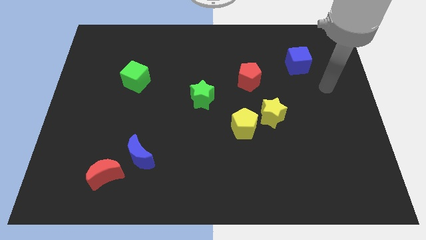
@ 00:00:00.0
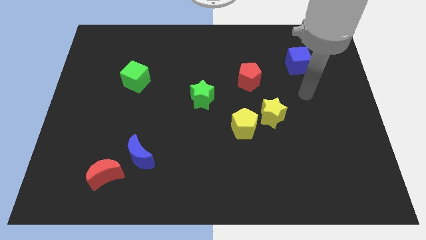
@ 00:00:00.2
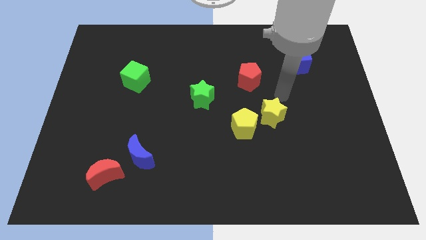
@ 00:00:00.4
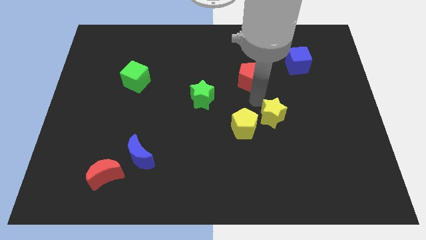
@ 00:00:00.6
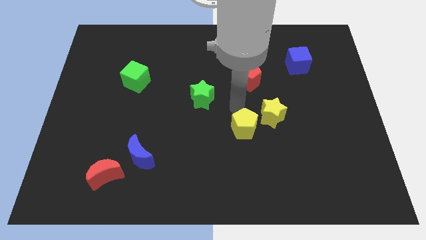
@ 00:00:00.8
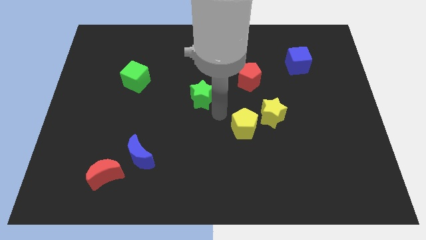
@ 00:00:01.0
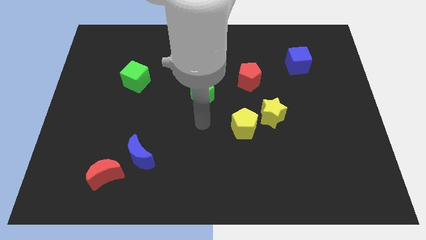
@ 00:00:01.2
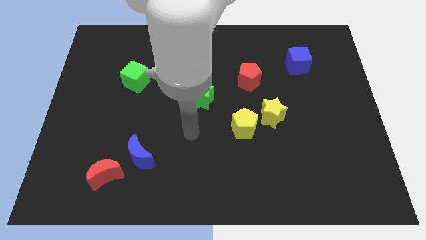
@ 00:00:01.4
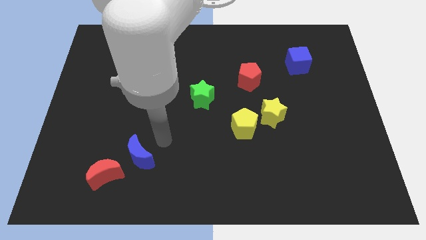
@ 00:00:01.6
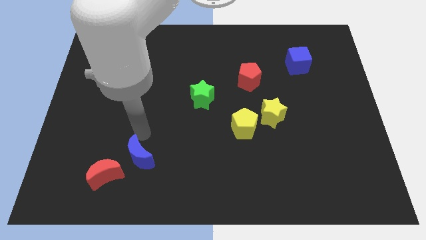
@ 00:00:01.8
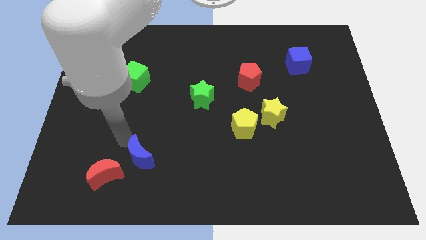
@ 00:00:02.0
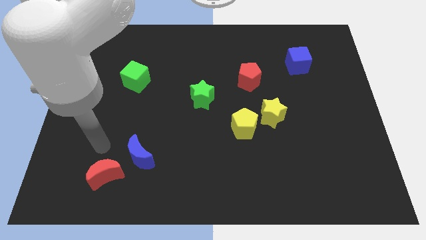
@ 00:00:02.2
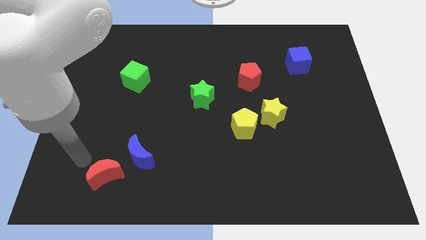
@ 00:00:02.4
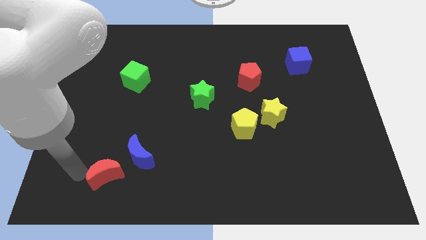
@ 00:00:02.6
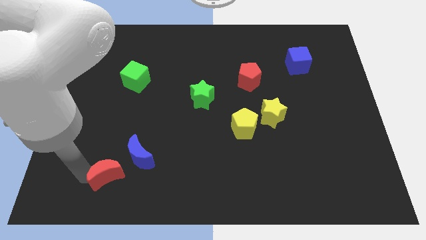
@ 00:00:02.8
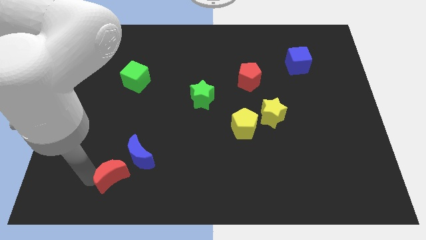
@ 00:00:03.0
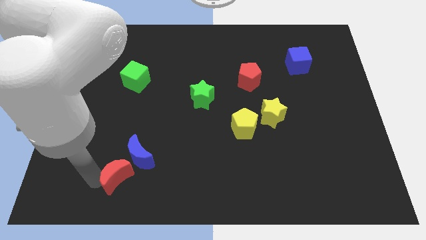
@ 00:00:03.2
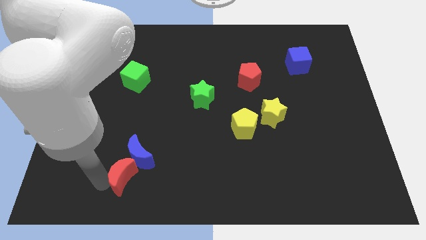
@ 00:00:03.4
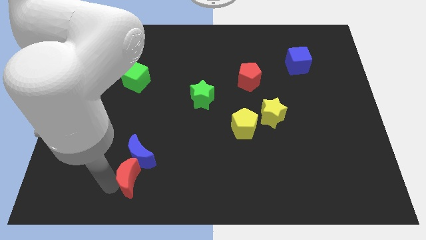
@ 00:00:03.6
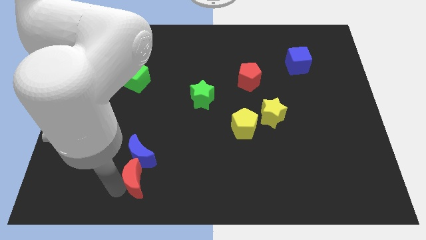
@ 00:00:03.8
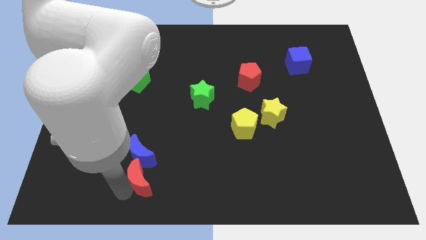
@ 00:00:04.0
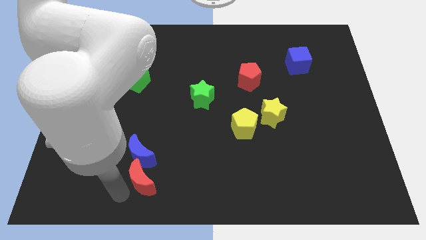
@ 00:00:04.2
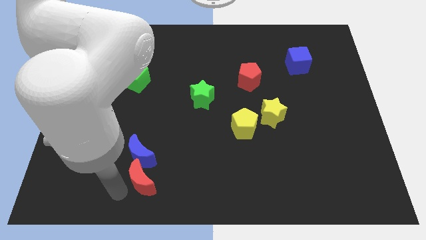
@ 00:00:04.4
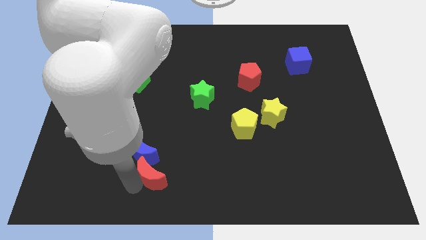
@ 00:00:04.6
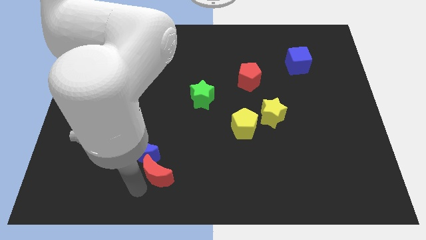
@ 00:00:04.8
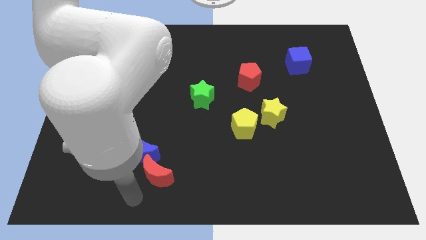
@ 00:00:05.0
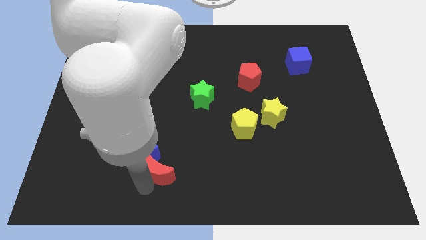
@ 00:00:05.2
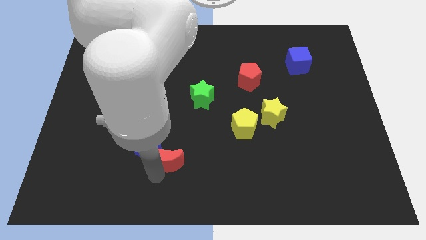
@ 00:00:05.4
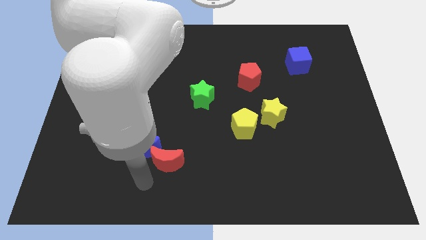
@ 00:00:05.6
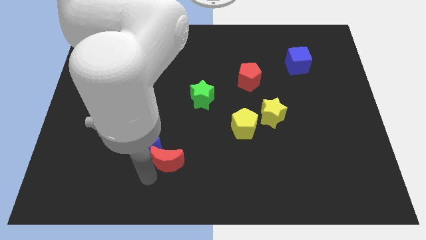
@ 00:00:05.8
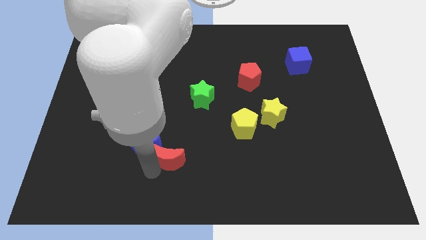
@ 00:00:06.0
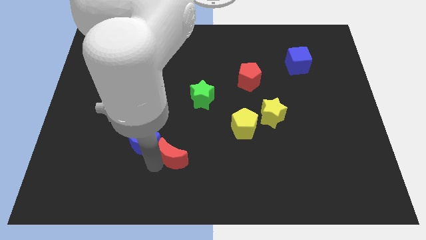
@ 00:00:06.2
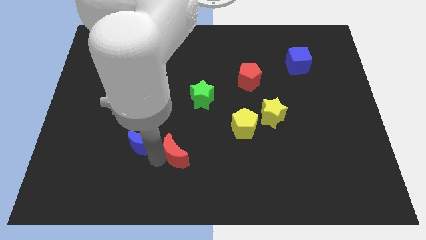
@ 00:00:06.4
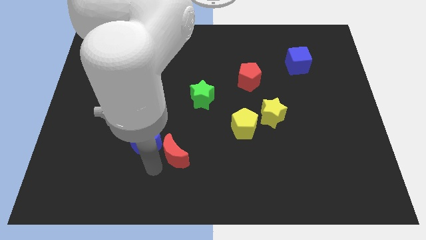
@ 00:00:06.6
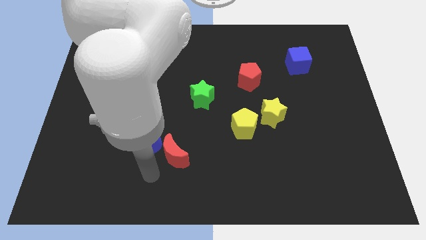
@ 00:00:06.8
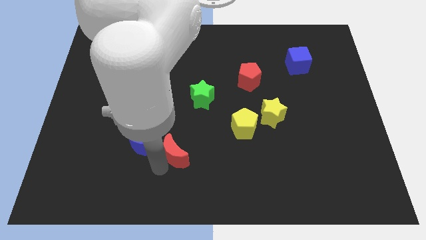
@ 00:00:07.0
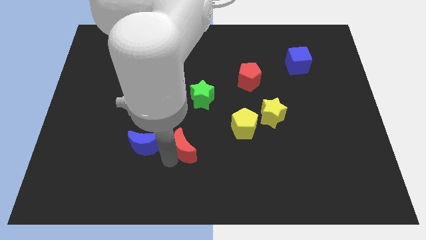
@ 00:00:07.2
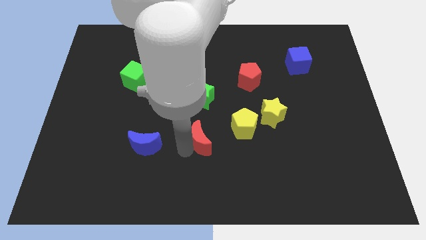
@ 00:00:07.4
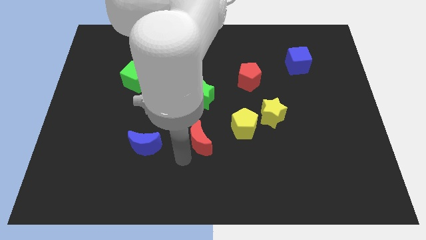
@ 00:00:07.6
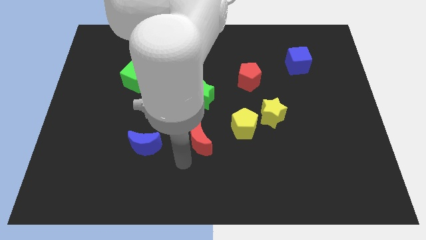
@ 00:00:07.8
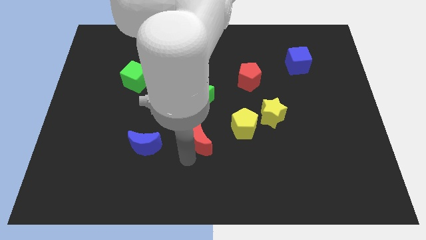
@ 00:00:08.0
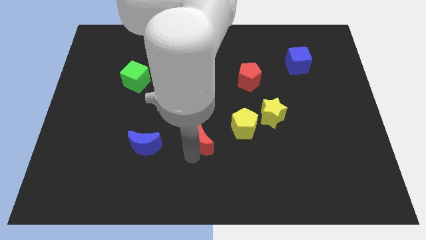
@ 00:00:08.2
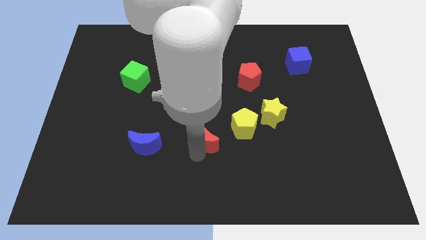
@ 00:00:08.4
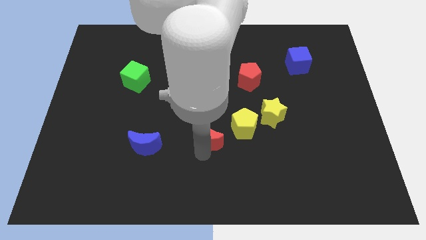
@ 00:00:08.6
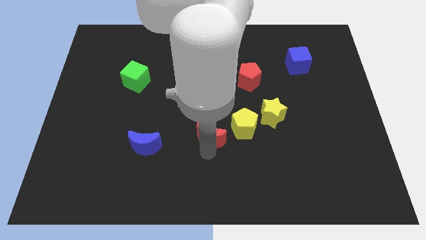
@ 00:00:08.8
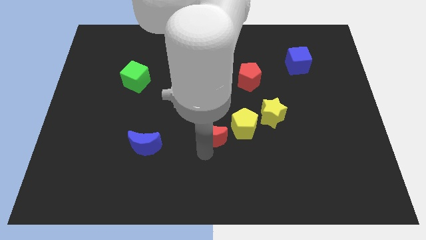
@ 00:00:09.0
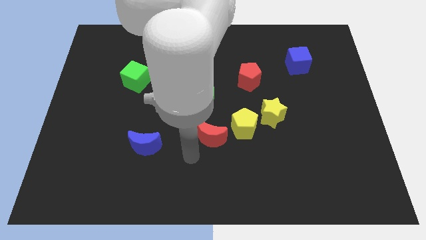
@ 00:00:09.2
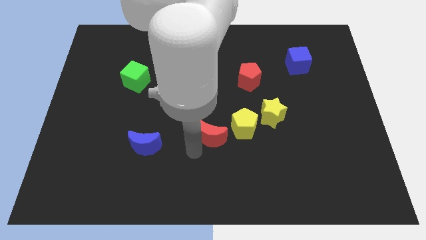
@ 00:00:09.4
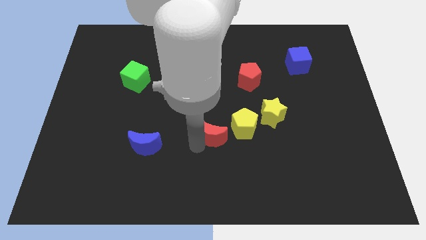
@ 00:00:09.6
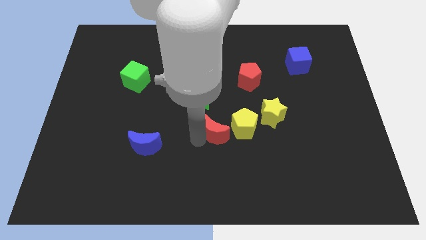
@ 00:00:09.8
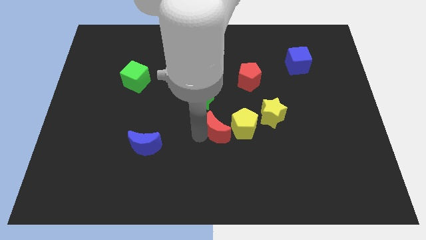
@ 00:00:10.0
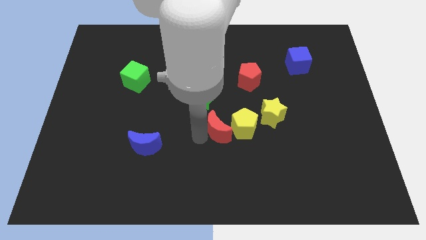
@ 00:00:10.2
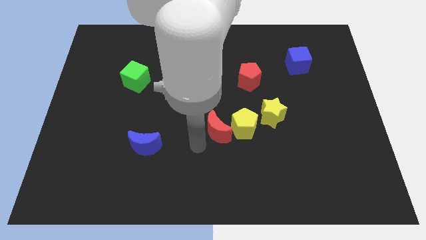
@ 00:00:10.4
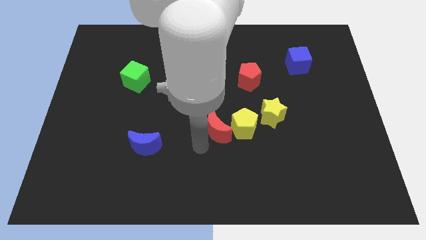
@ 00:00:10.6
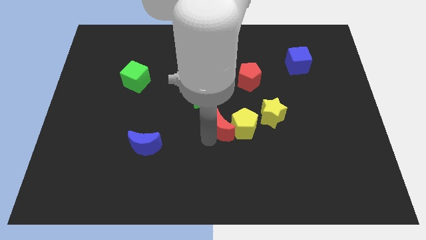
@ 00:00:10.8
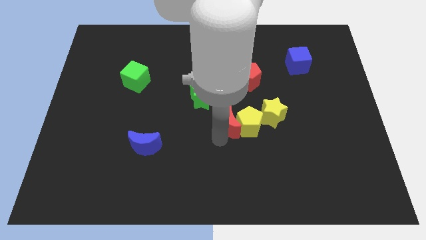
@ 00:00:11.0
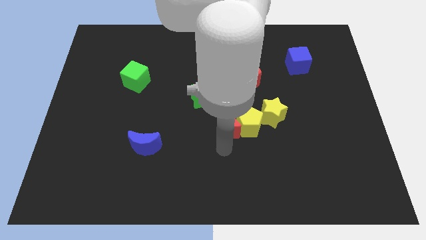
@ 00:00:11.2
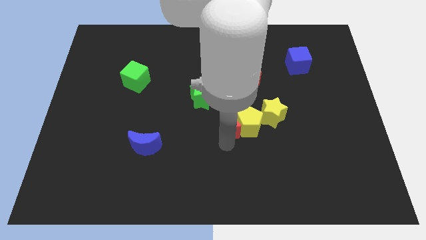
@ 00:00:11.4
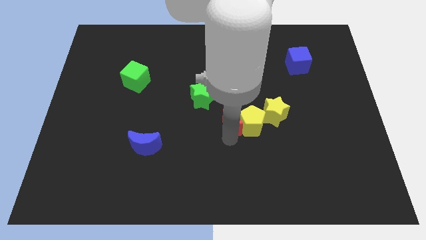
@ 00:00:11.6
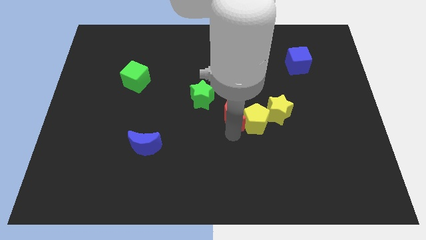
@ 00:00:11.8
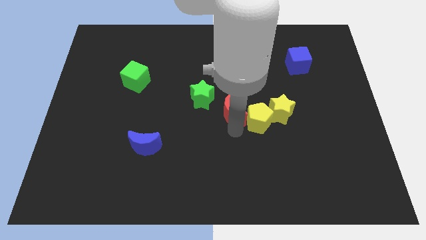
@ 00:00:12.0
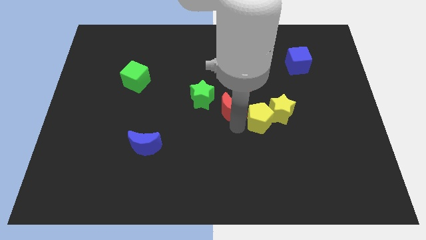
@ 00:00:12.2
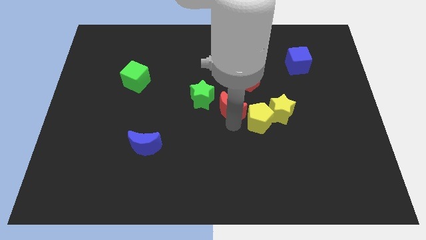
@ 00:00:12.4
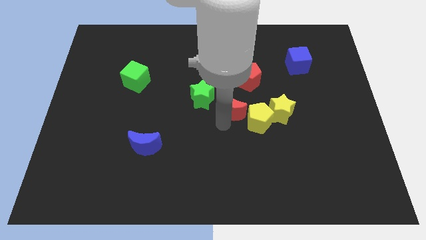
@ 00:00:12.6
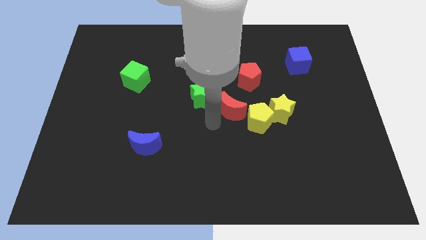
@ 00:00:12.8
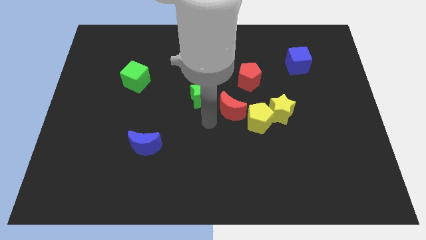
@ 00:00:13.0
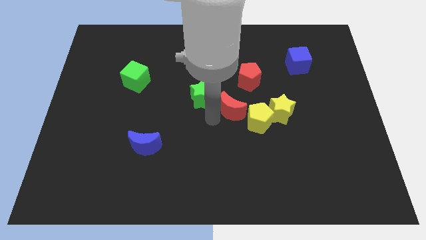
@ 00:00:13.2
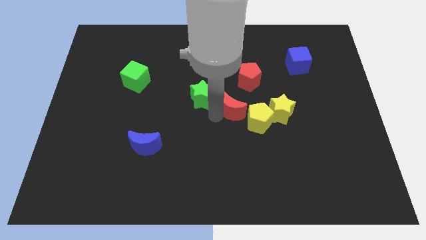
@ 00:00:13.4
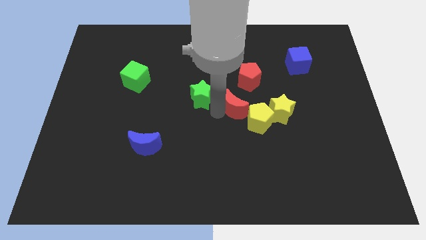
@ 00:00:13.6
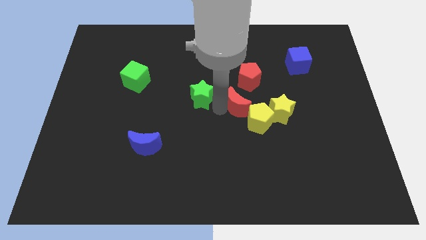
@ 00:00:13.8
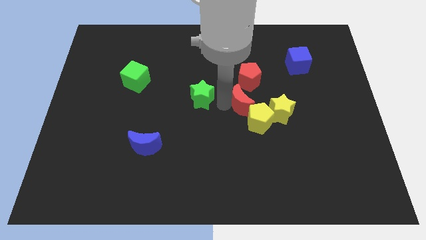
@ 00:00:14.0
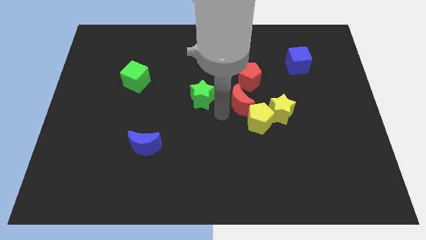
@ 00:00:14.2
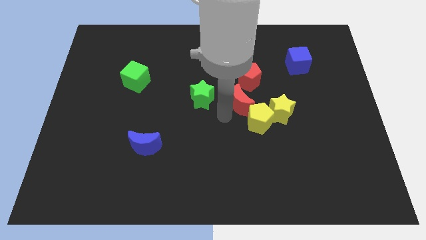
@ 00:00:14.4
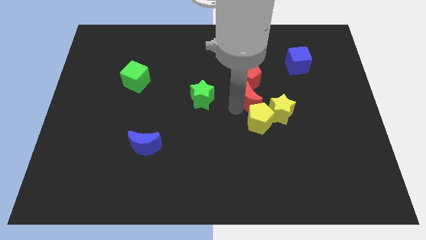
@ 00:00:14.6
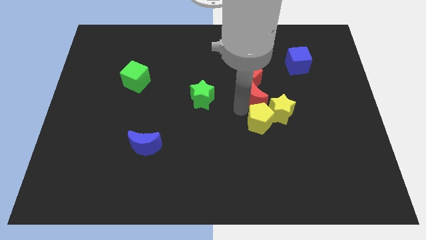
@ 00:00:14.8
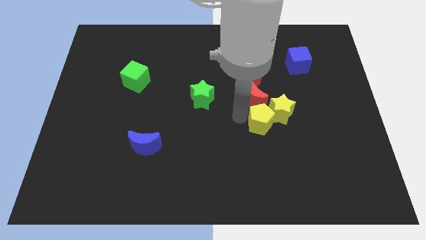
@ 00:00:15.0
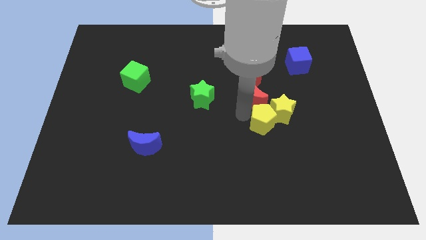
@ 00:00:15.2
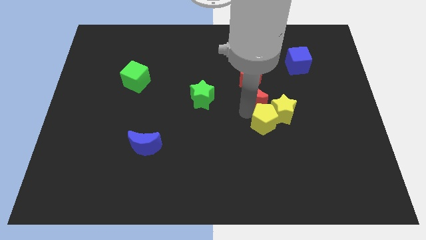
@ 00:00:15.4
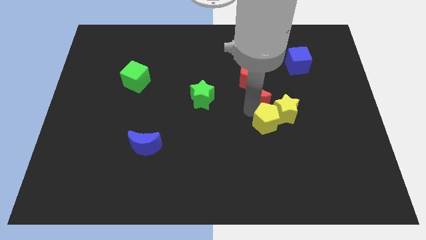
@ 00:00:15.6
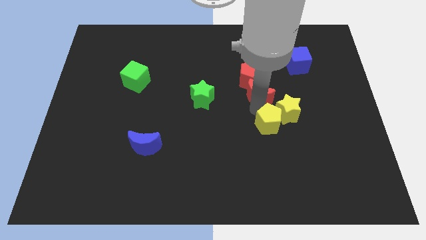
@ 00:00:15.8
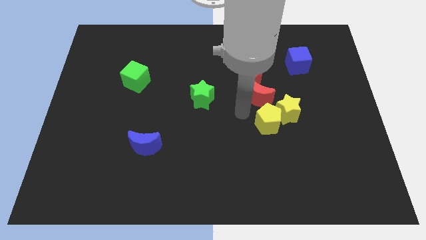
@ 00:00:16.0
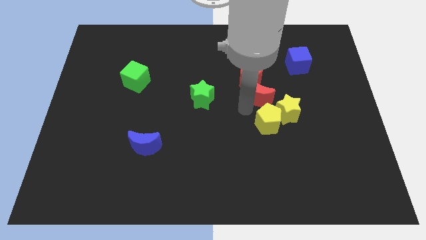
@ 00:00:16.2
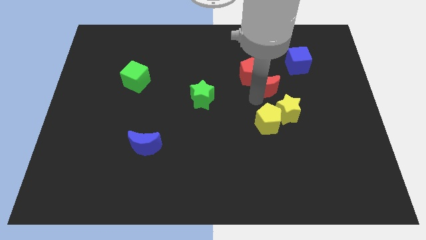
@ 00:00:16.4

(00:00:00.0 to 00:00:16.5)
slide the red moon to the bottom left of the blue cube
